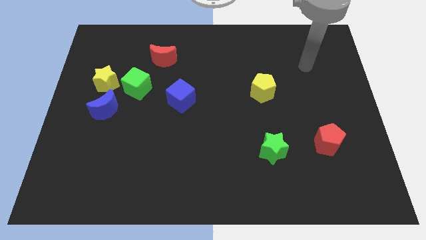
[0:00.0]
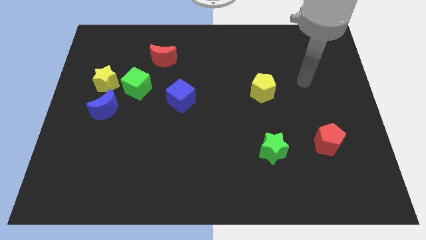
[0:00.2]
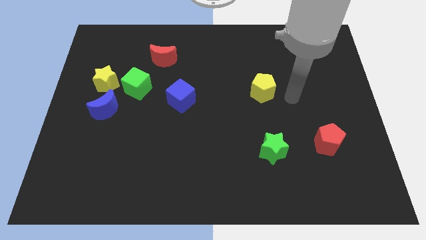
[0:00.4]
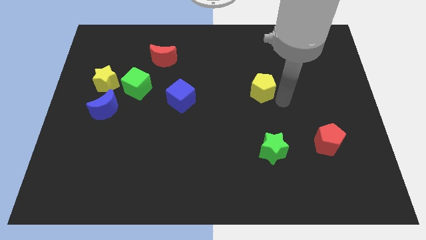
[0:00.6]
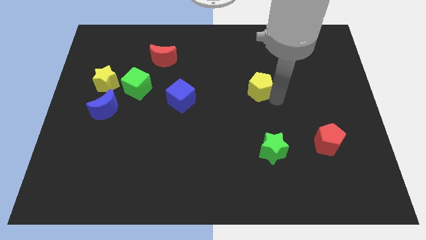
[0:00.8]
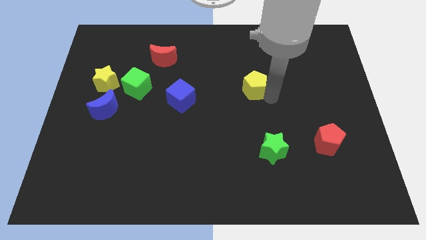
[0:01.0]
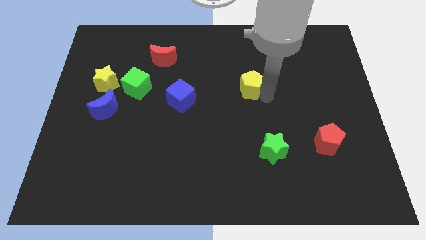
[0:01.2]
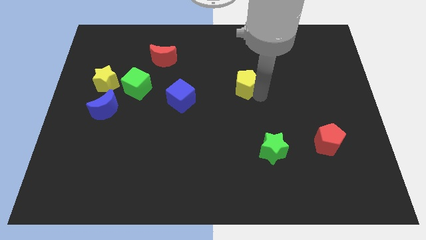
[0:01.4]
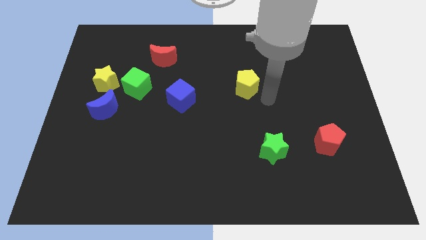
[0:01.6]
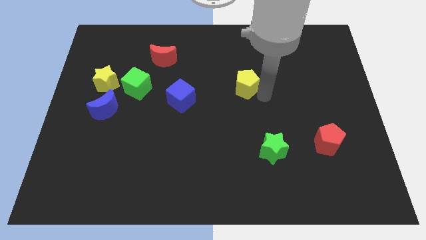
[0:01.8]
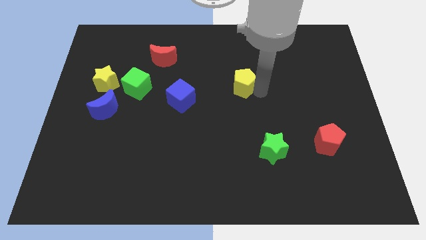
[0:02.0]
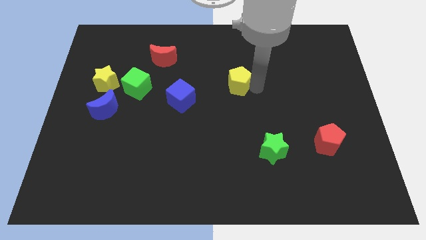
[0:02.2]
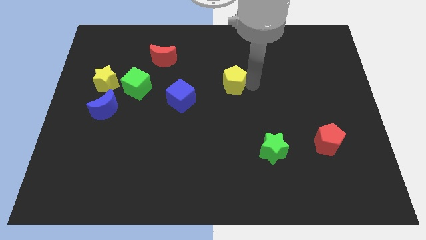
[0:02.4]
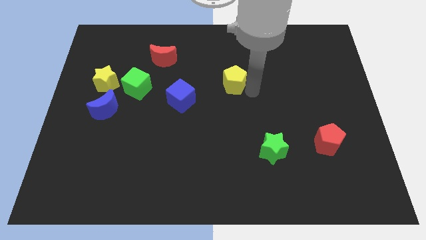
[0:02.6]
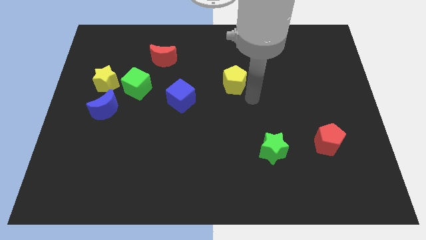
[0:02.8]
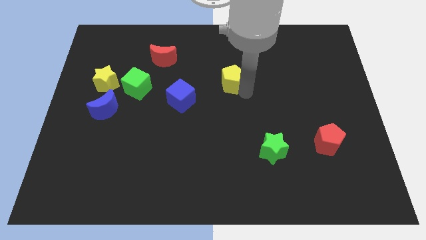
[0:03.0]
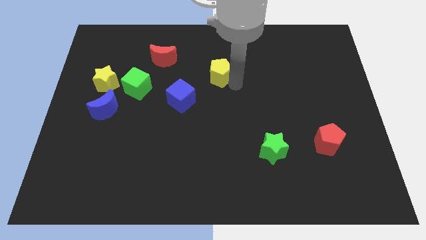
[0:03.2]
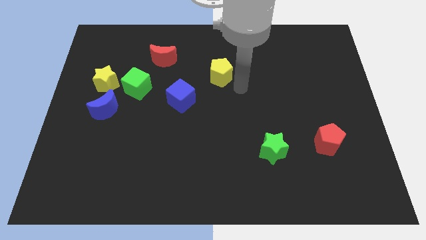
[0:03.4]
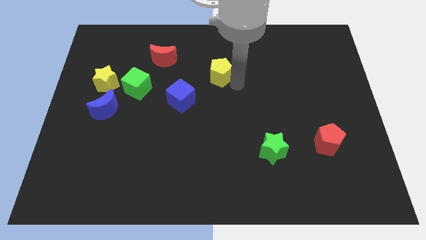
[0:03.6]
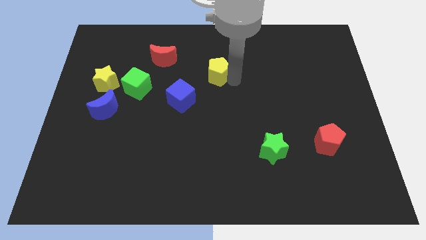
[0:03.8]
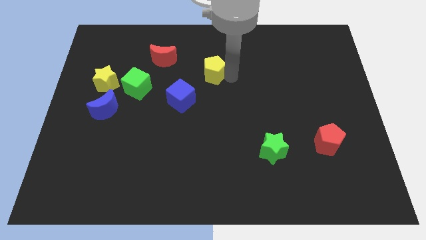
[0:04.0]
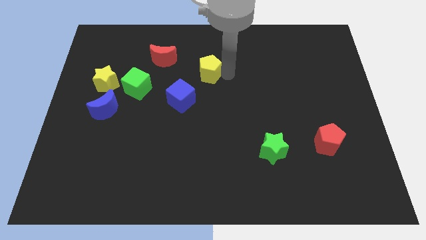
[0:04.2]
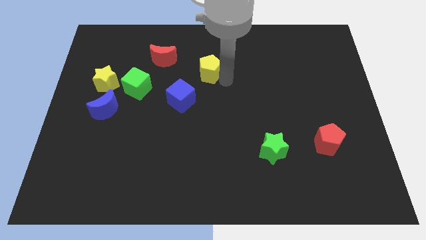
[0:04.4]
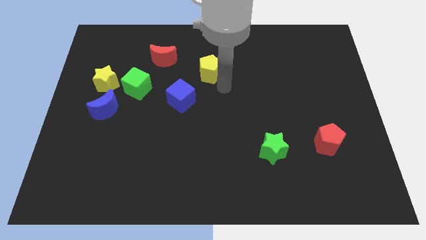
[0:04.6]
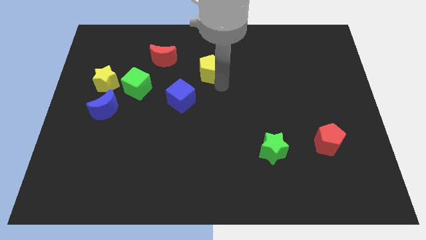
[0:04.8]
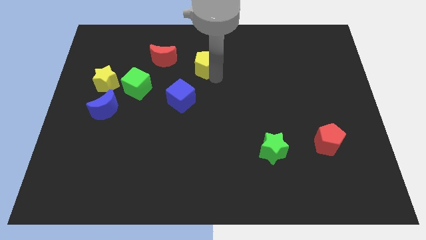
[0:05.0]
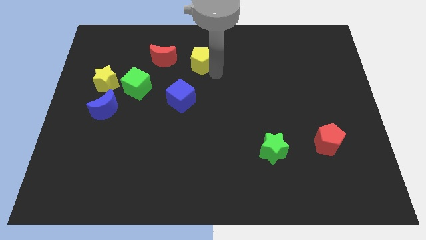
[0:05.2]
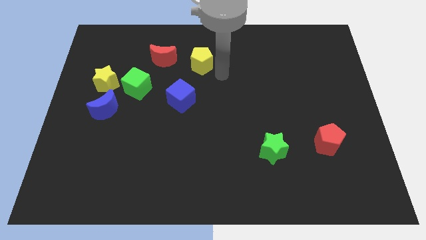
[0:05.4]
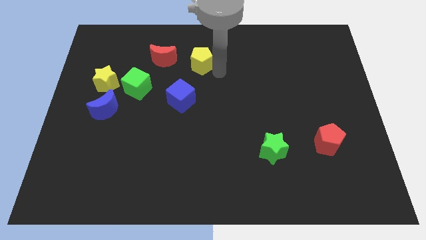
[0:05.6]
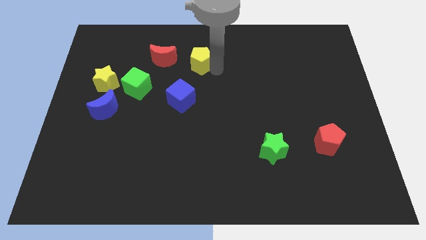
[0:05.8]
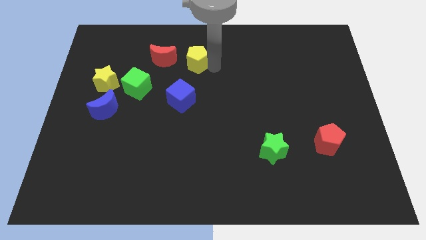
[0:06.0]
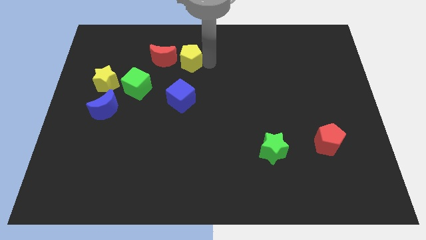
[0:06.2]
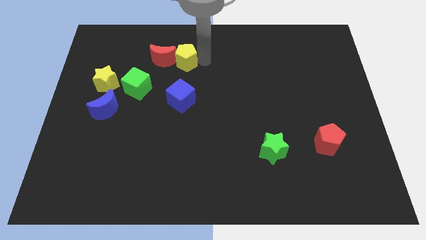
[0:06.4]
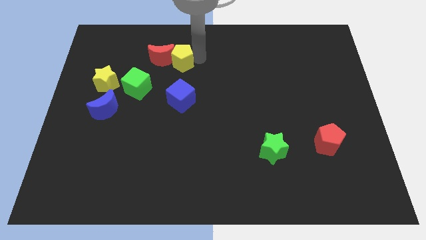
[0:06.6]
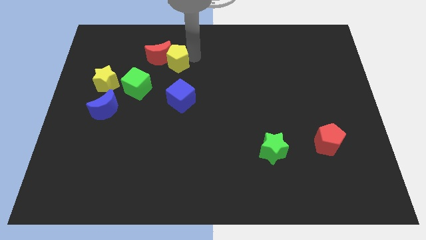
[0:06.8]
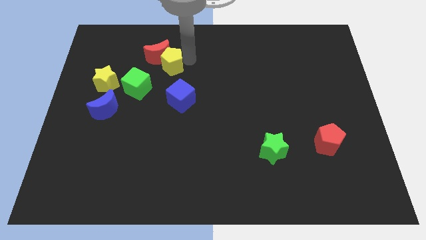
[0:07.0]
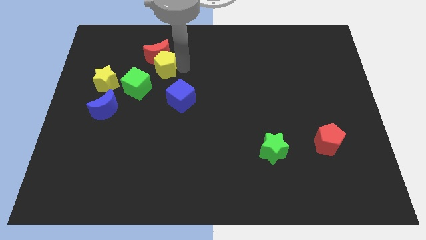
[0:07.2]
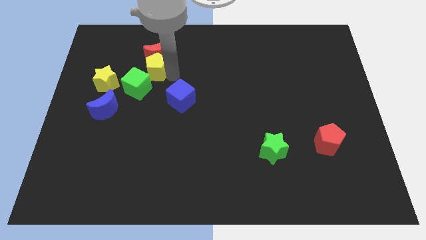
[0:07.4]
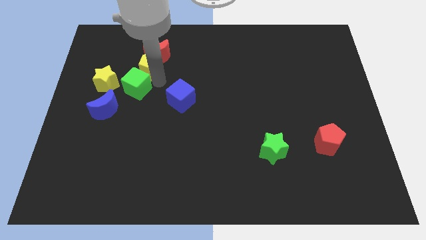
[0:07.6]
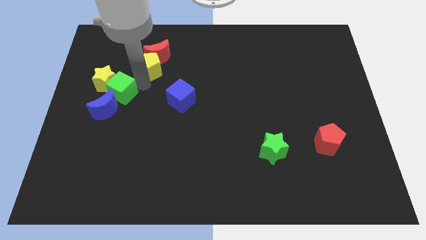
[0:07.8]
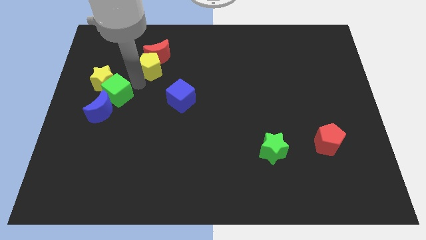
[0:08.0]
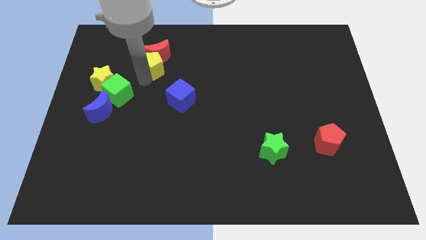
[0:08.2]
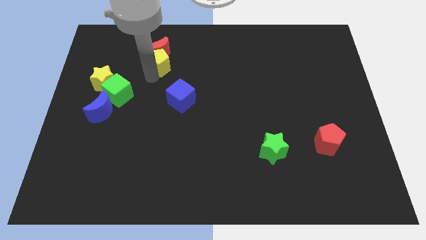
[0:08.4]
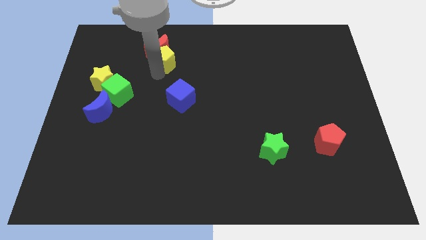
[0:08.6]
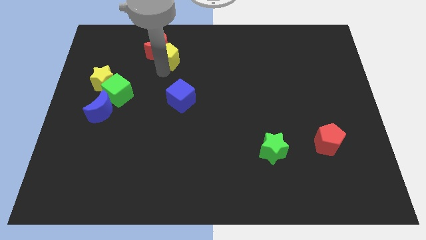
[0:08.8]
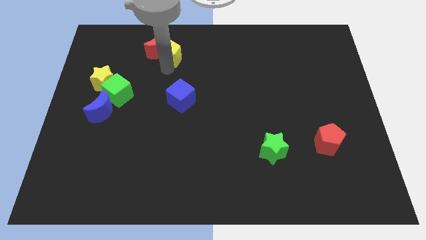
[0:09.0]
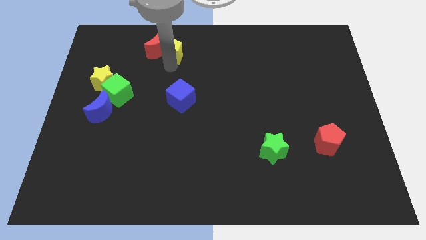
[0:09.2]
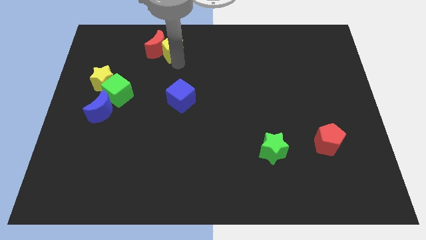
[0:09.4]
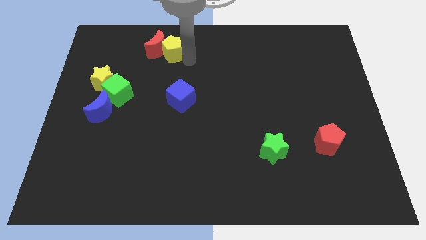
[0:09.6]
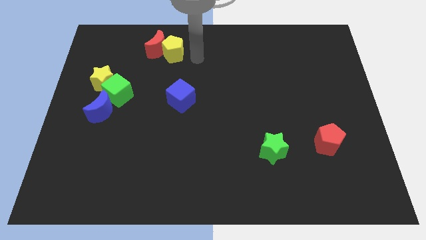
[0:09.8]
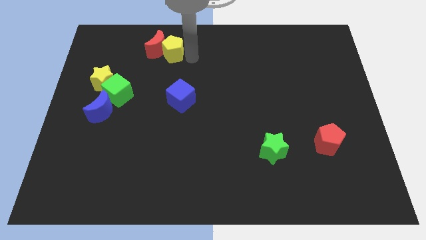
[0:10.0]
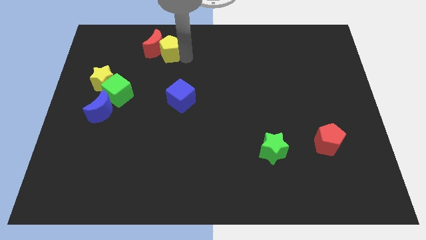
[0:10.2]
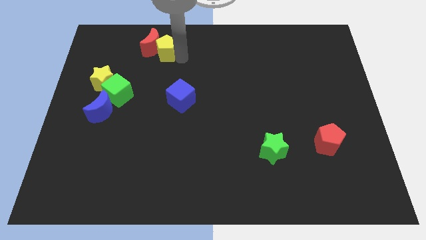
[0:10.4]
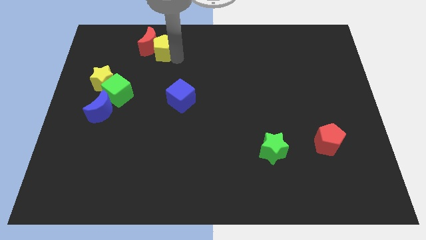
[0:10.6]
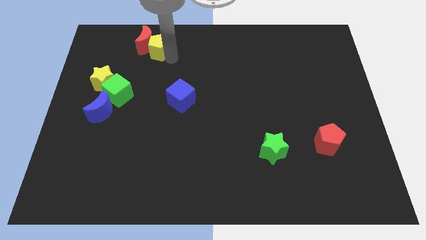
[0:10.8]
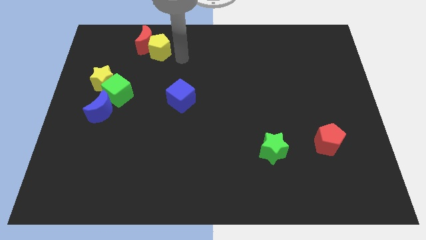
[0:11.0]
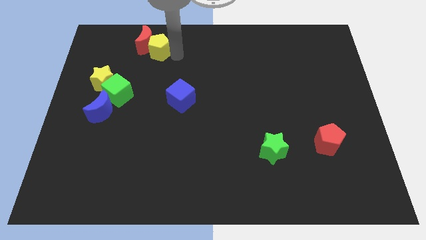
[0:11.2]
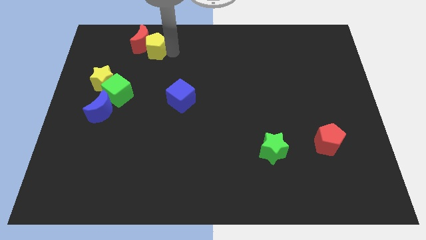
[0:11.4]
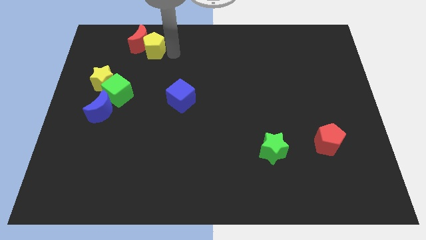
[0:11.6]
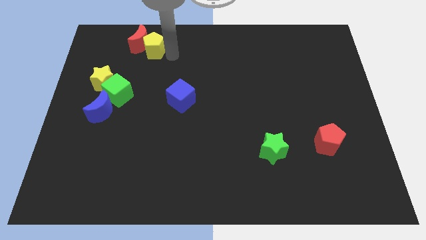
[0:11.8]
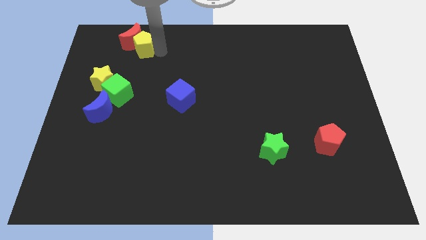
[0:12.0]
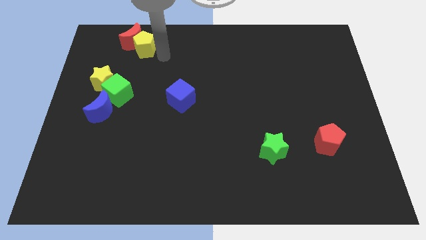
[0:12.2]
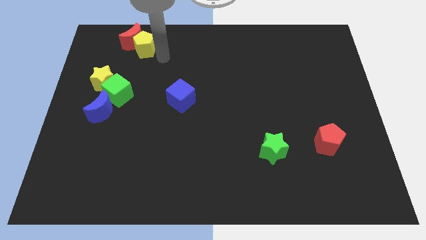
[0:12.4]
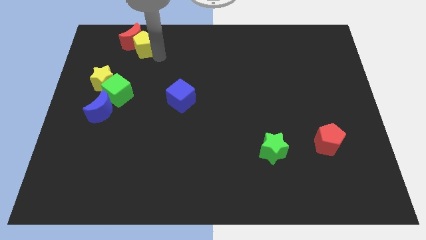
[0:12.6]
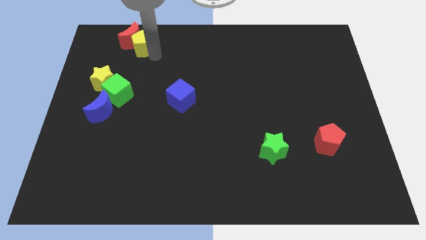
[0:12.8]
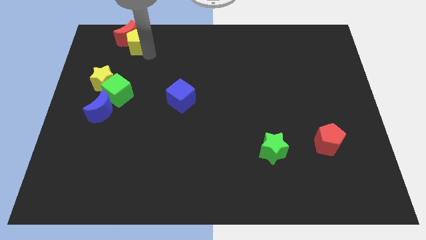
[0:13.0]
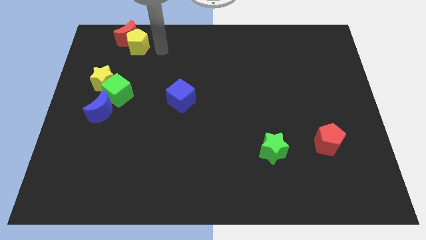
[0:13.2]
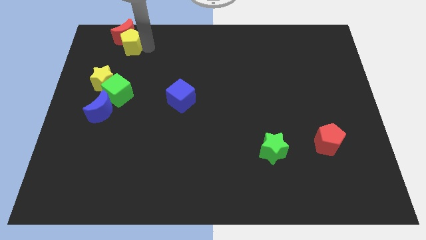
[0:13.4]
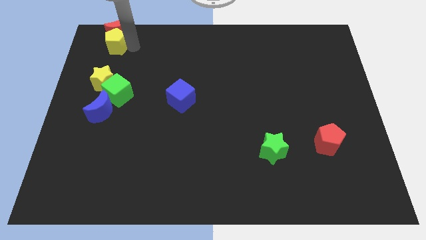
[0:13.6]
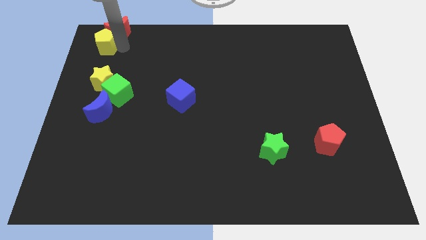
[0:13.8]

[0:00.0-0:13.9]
slide the yellow pentagon to the top left corner
